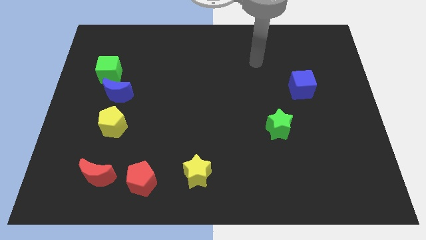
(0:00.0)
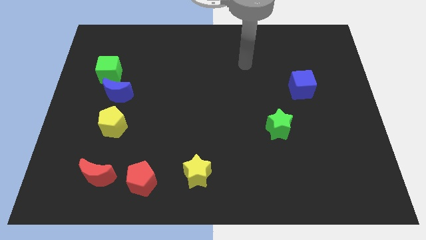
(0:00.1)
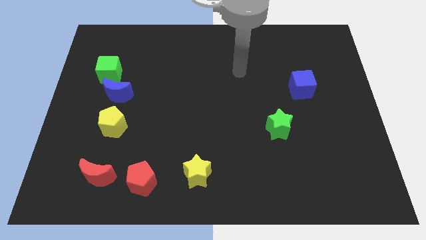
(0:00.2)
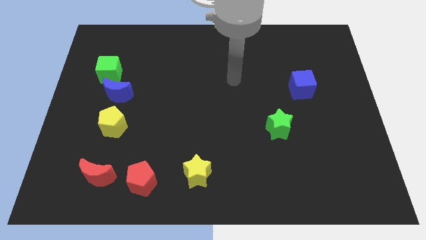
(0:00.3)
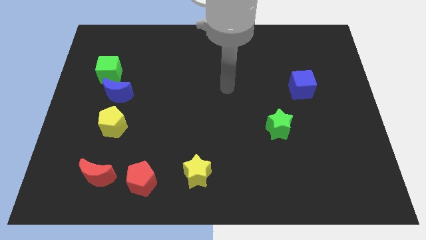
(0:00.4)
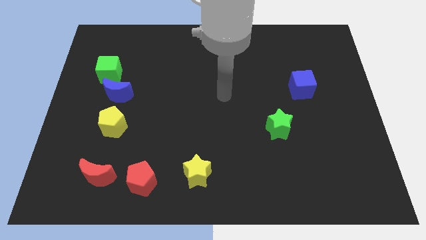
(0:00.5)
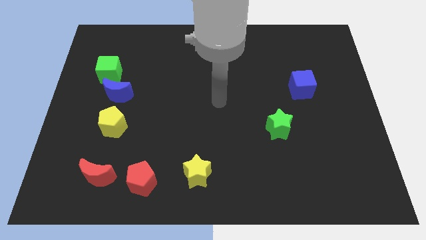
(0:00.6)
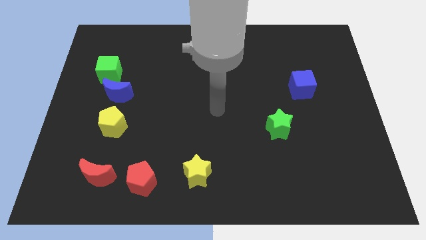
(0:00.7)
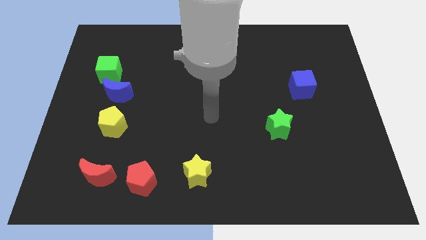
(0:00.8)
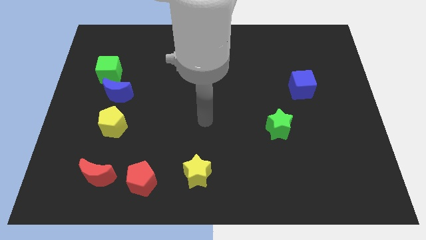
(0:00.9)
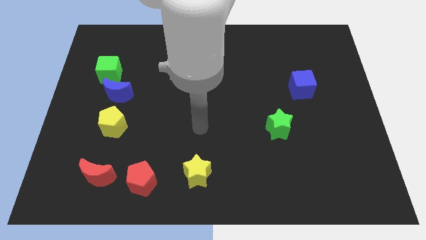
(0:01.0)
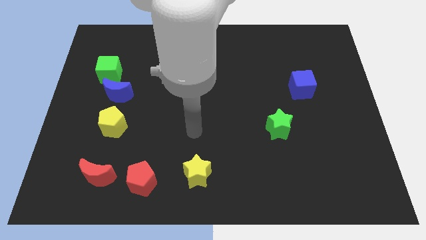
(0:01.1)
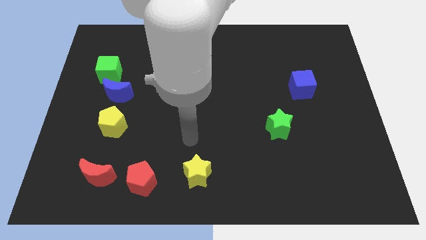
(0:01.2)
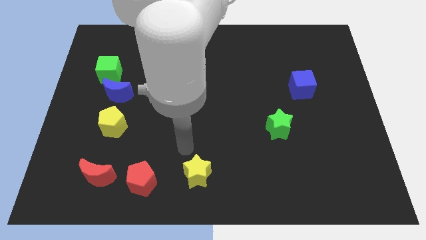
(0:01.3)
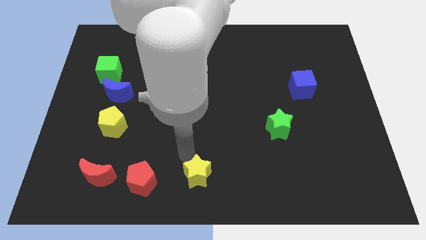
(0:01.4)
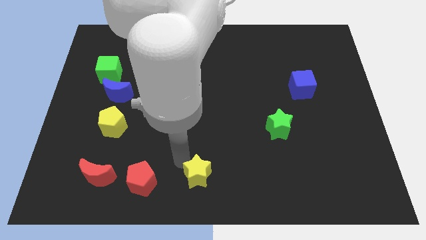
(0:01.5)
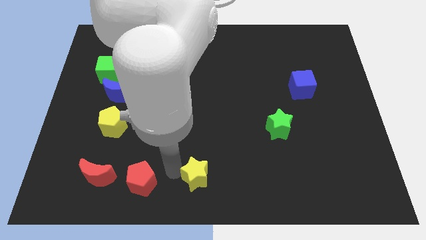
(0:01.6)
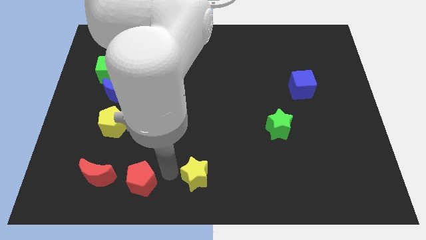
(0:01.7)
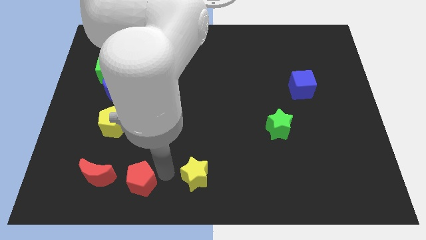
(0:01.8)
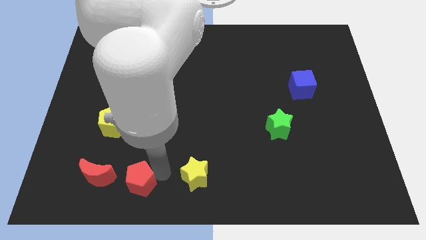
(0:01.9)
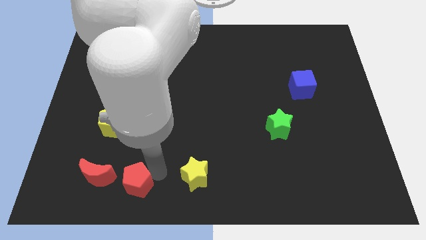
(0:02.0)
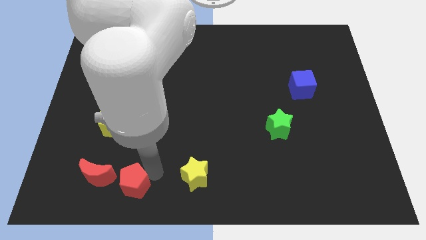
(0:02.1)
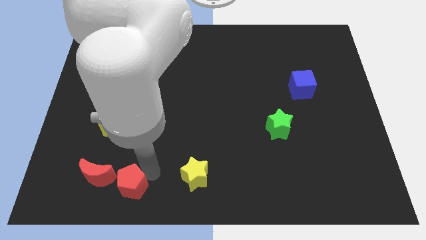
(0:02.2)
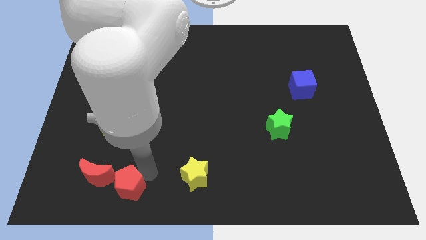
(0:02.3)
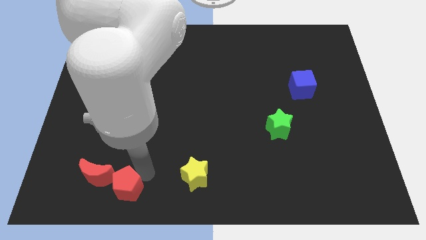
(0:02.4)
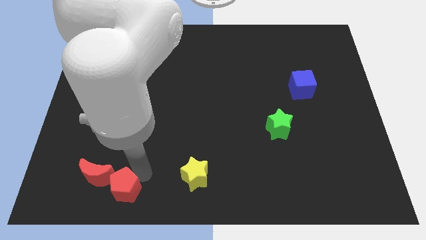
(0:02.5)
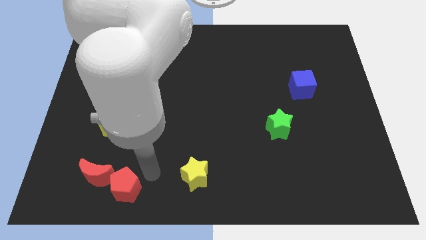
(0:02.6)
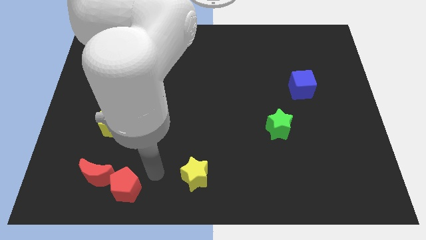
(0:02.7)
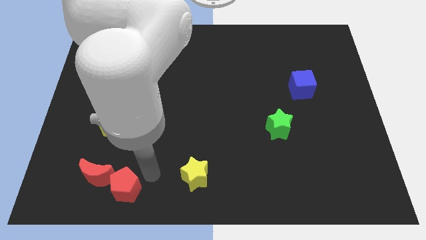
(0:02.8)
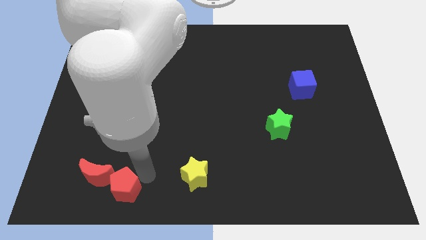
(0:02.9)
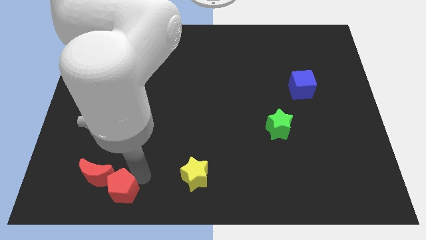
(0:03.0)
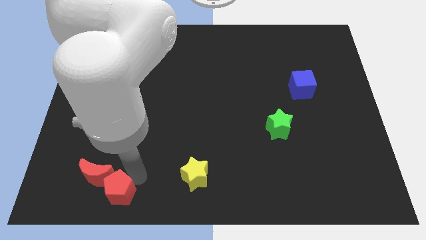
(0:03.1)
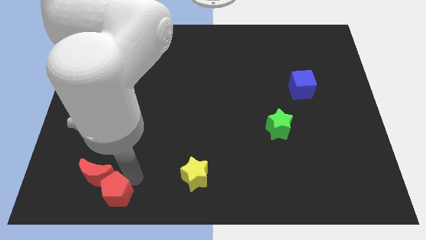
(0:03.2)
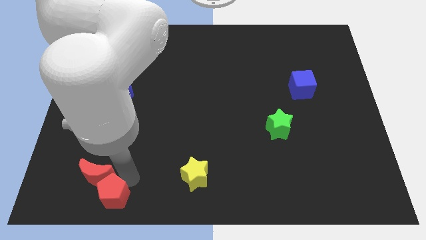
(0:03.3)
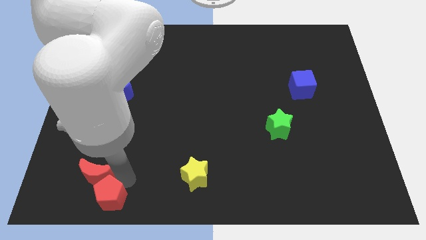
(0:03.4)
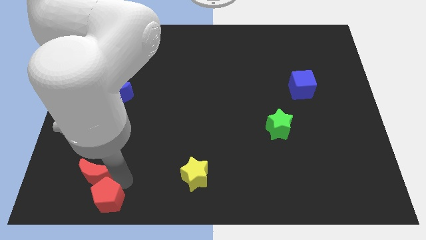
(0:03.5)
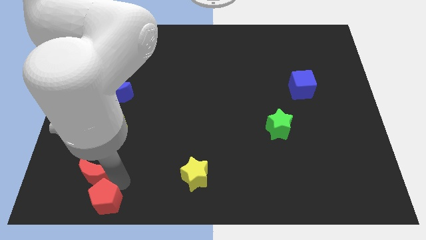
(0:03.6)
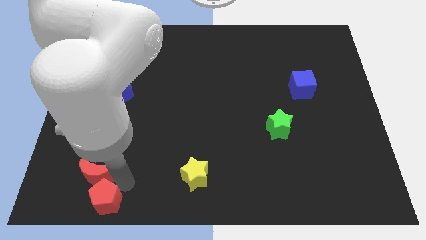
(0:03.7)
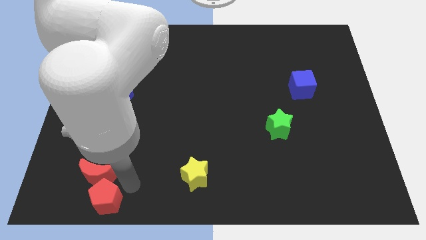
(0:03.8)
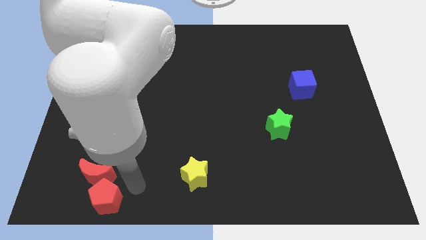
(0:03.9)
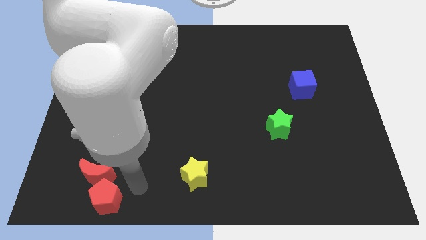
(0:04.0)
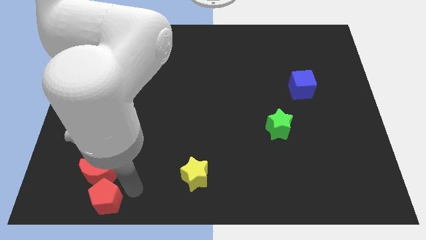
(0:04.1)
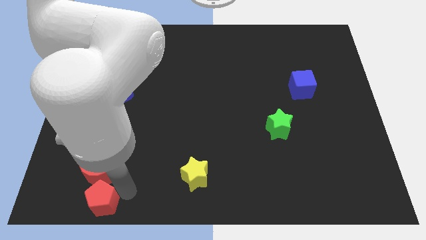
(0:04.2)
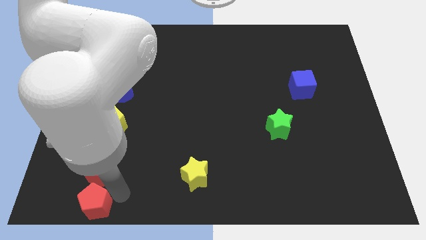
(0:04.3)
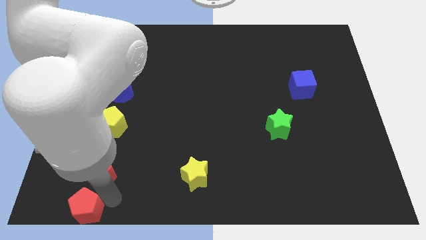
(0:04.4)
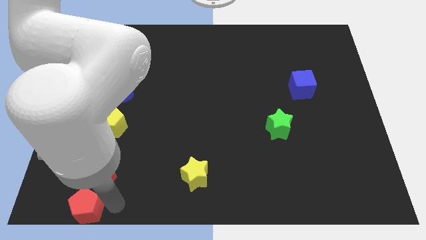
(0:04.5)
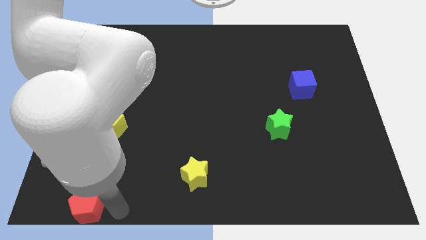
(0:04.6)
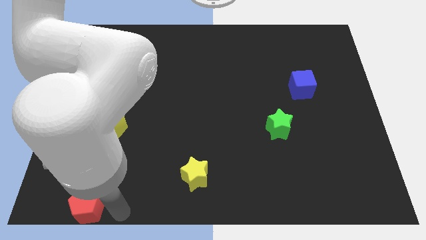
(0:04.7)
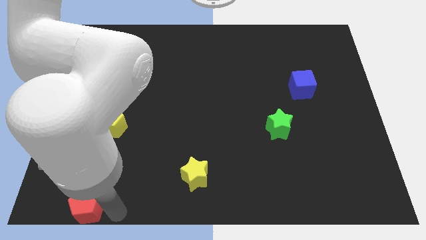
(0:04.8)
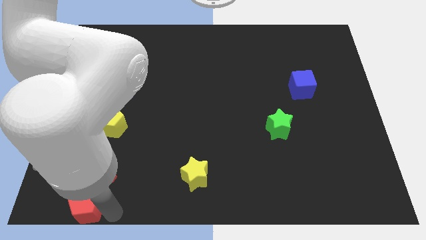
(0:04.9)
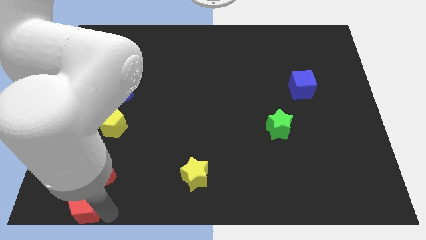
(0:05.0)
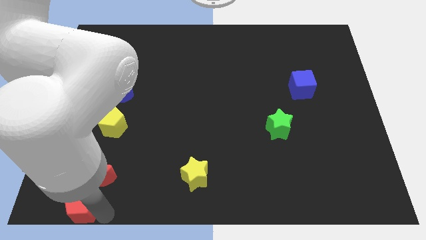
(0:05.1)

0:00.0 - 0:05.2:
move the red pentagon to the bottom left of the board

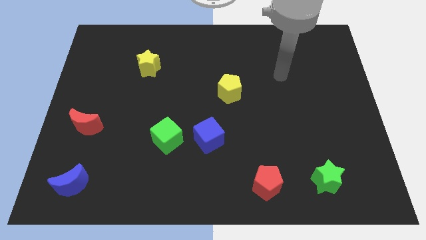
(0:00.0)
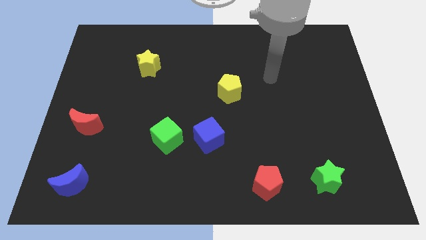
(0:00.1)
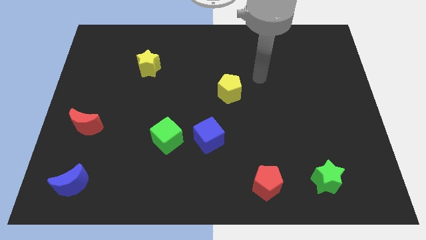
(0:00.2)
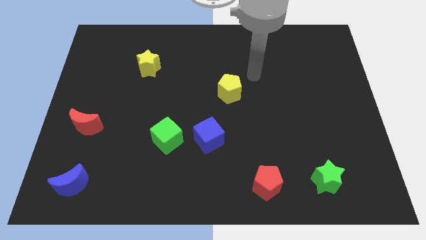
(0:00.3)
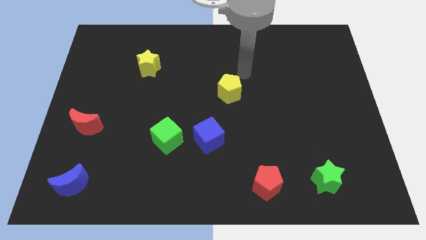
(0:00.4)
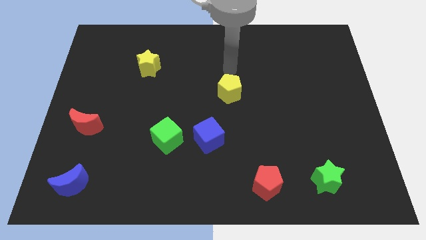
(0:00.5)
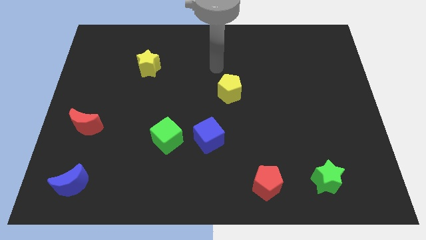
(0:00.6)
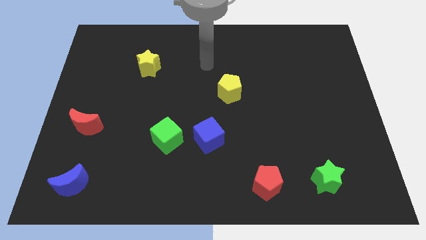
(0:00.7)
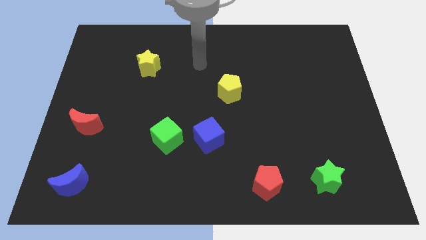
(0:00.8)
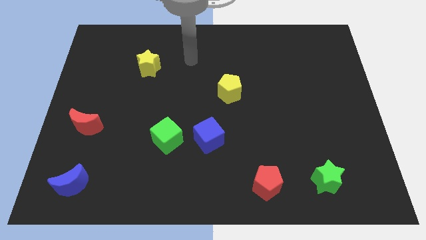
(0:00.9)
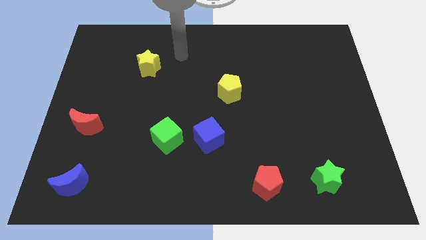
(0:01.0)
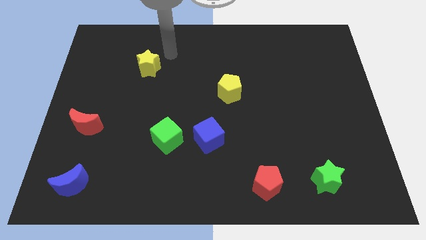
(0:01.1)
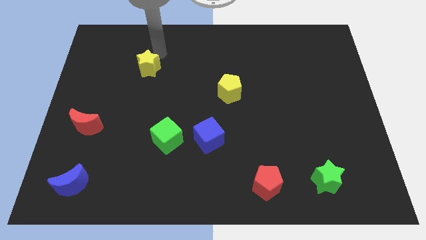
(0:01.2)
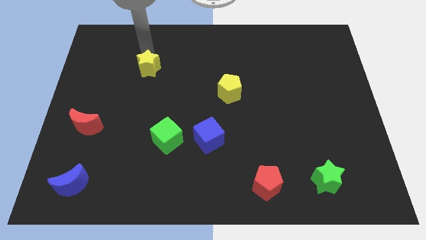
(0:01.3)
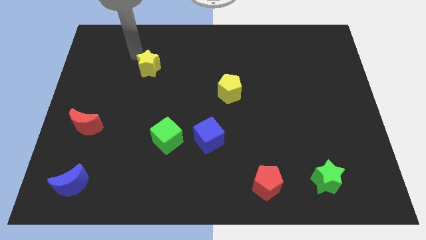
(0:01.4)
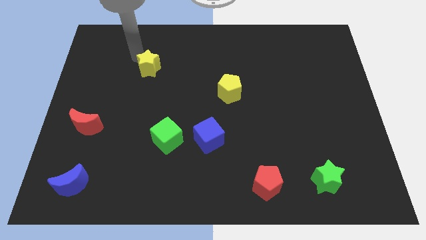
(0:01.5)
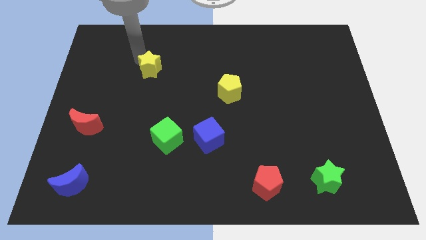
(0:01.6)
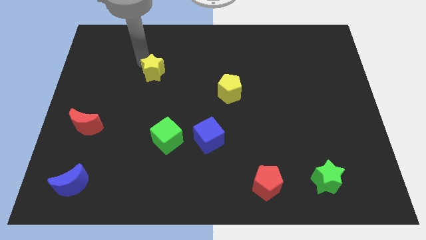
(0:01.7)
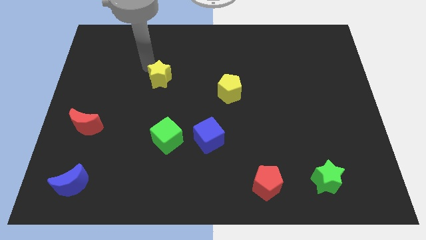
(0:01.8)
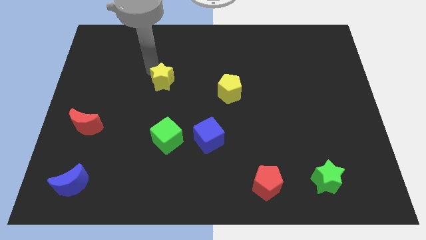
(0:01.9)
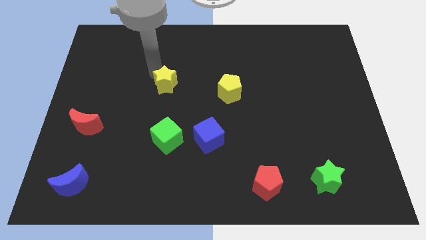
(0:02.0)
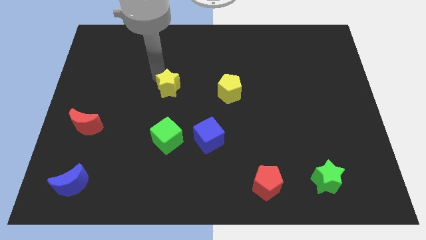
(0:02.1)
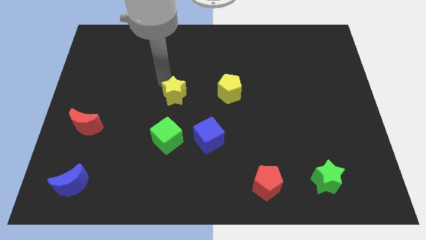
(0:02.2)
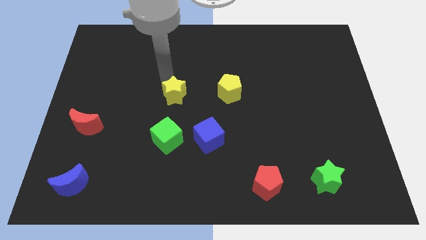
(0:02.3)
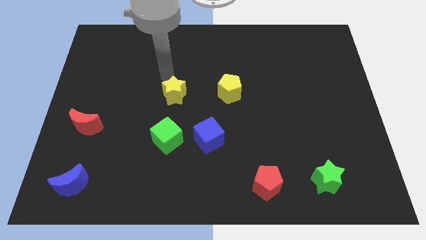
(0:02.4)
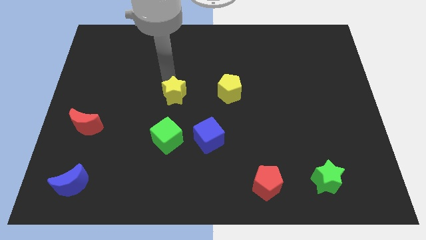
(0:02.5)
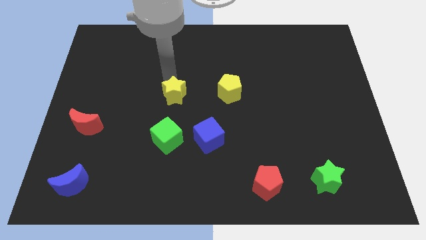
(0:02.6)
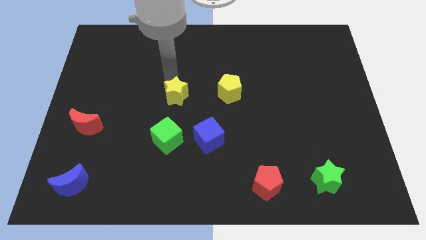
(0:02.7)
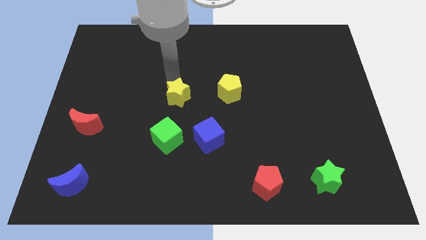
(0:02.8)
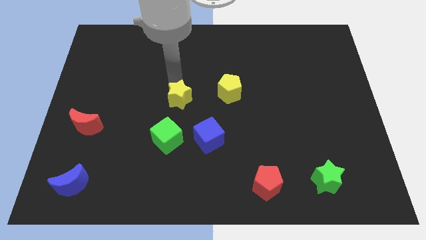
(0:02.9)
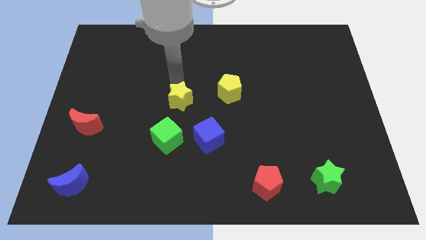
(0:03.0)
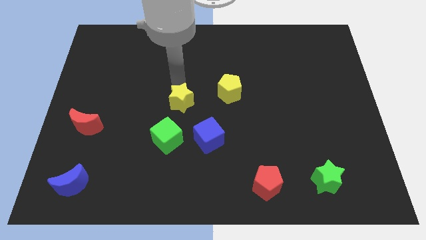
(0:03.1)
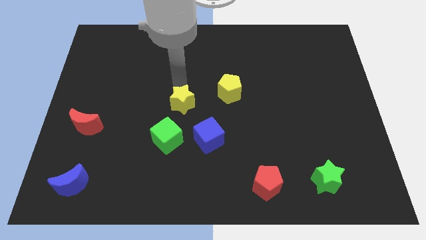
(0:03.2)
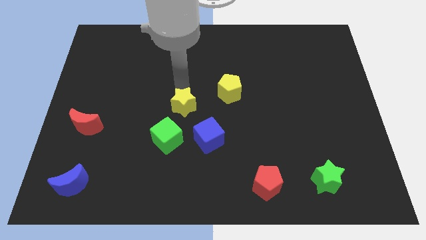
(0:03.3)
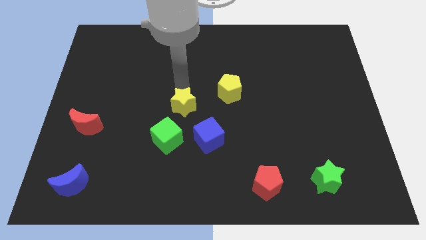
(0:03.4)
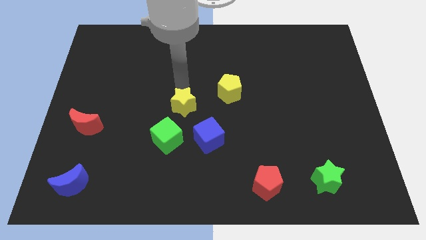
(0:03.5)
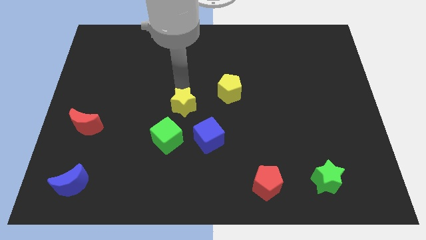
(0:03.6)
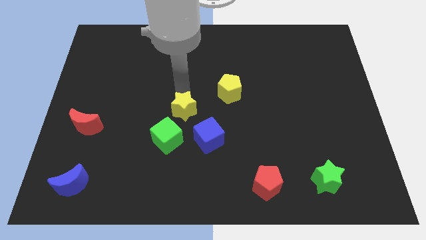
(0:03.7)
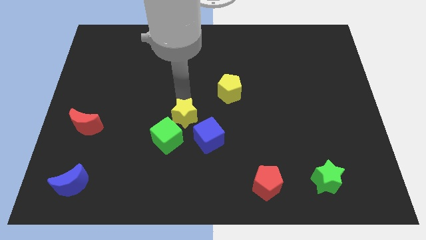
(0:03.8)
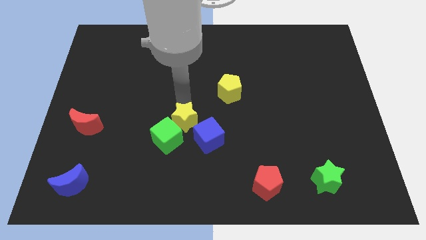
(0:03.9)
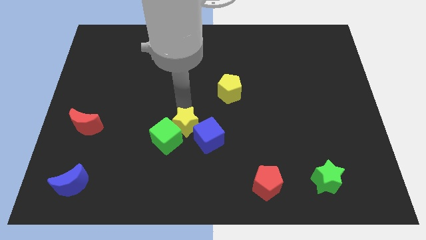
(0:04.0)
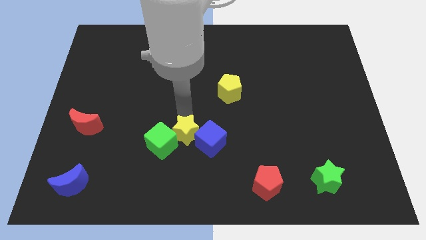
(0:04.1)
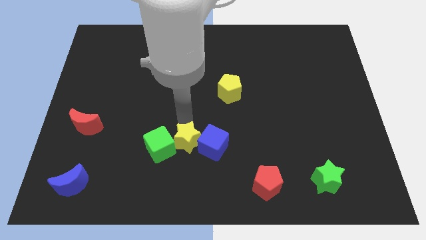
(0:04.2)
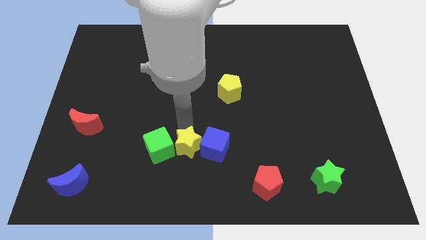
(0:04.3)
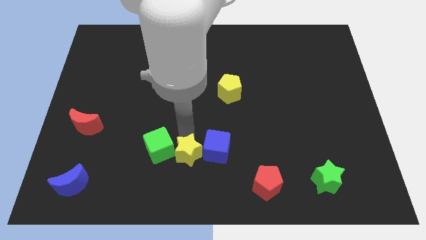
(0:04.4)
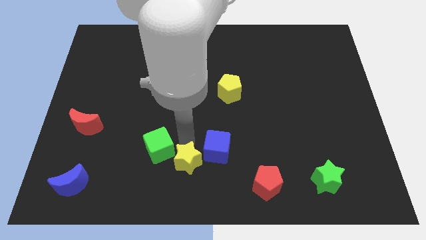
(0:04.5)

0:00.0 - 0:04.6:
slide the yellow star to the bottom side
